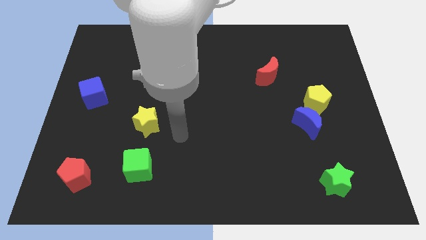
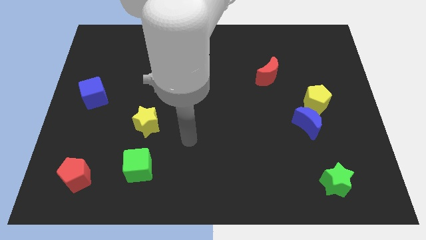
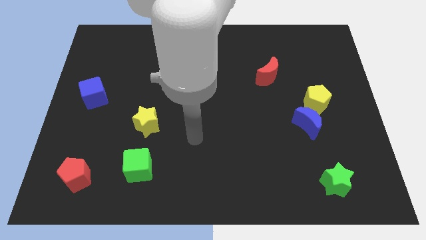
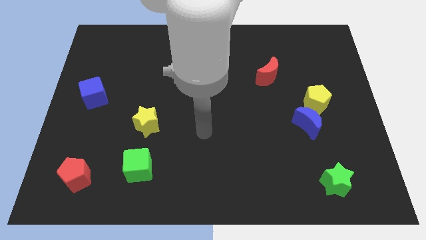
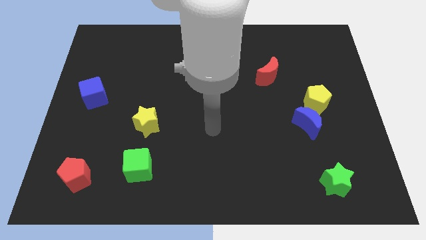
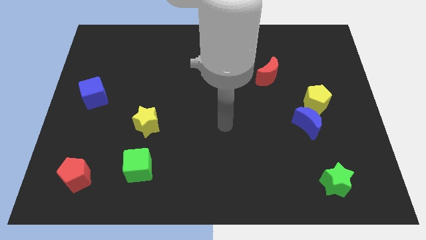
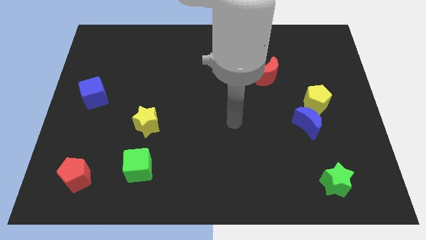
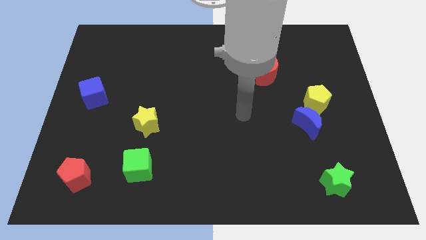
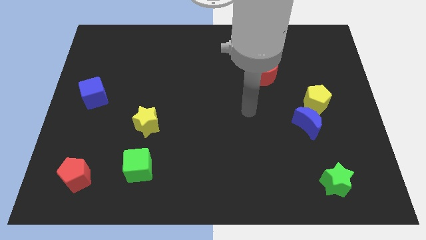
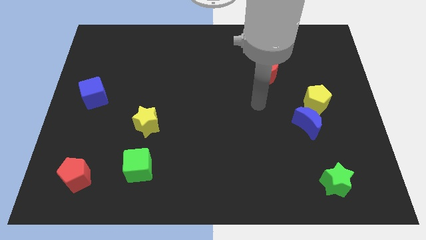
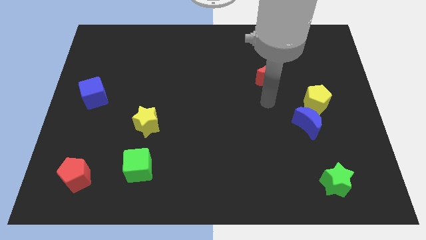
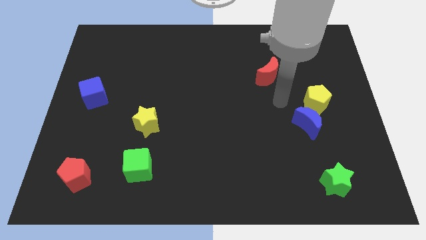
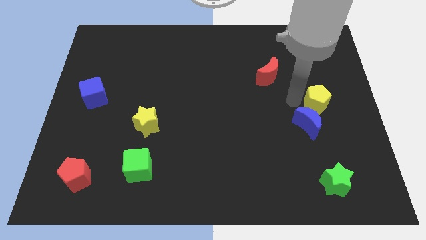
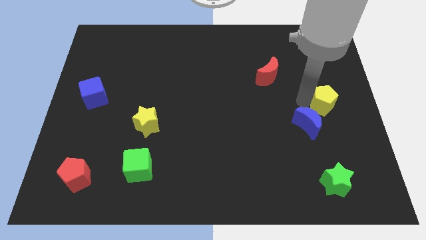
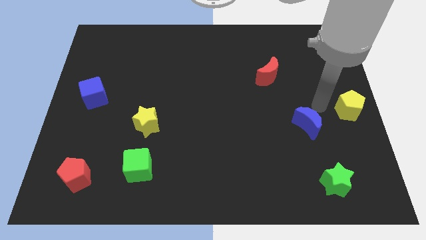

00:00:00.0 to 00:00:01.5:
separate the blue moon from the yellow pentagon

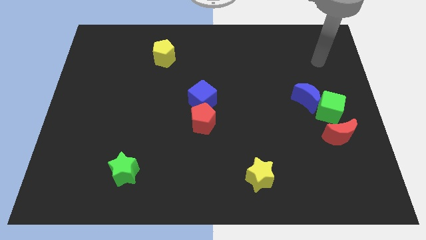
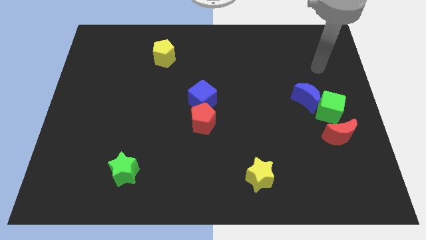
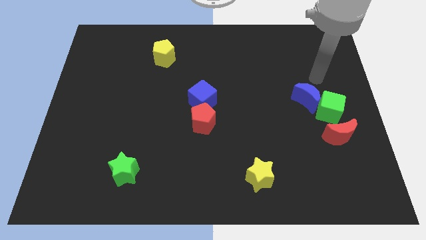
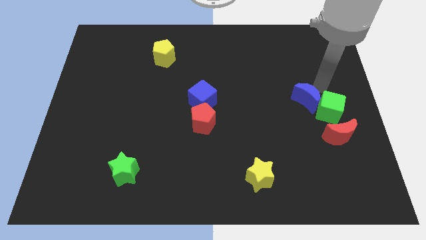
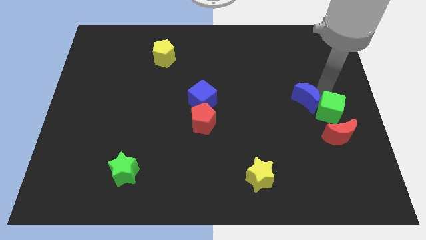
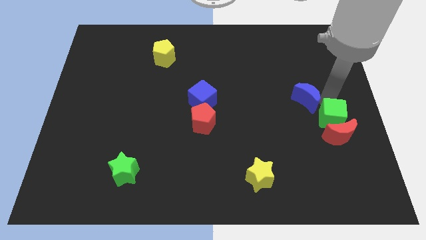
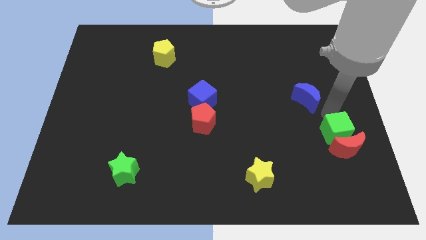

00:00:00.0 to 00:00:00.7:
separate the blue moon from the green cube

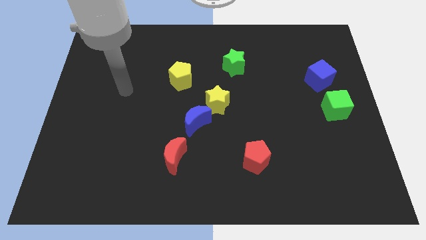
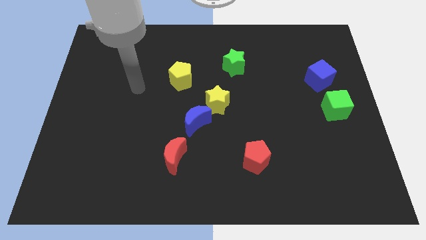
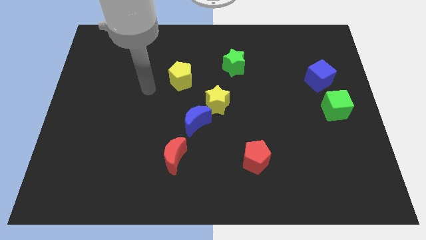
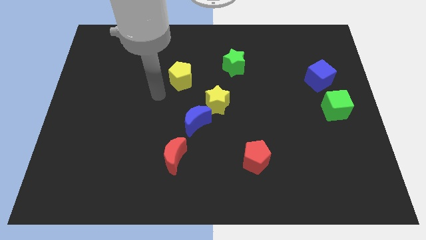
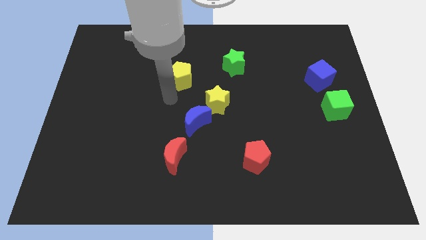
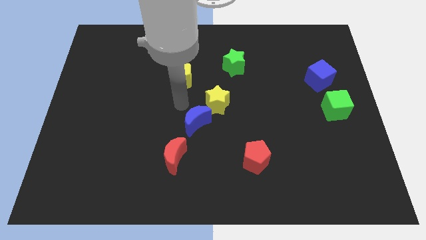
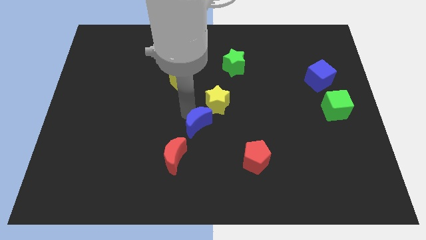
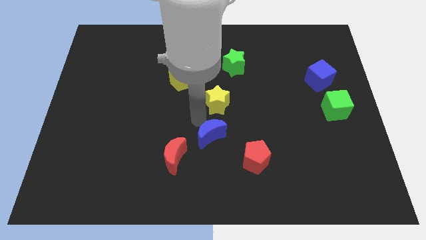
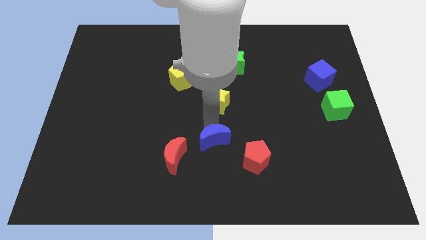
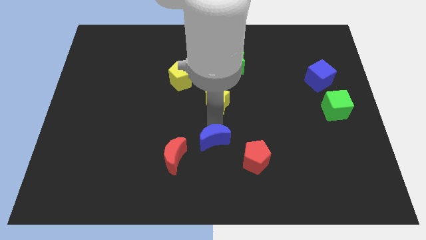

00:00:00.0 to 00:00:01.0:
separate the yellow star from the blue moon

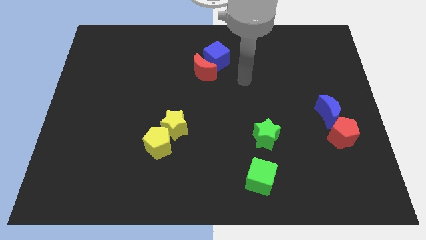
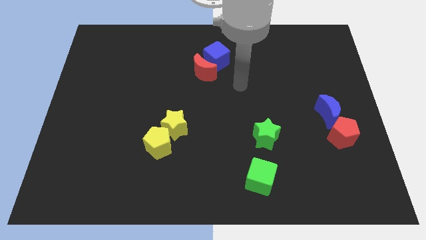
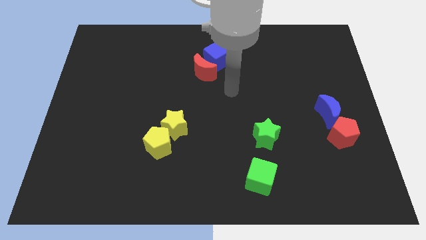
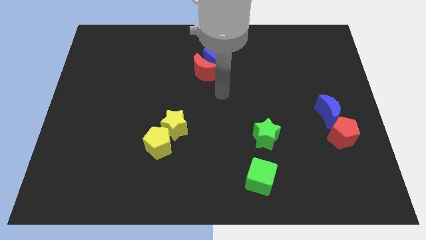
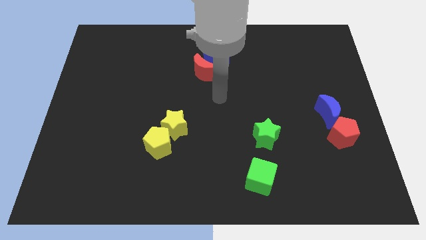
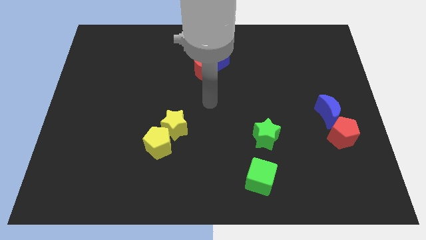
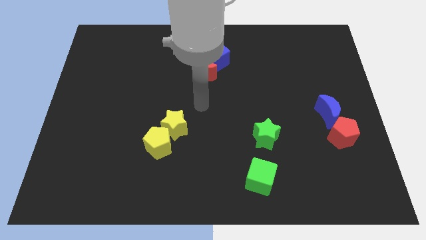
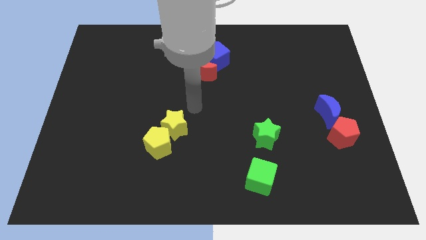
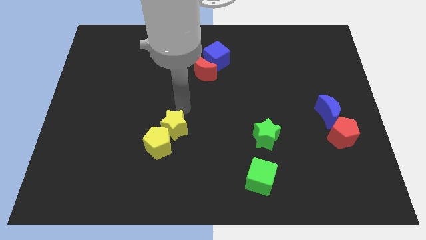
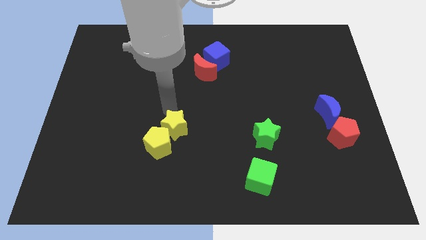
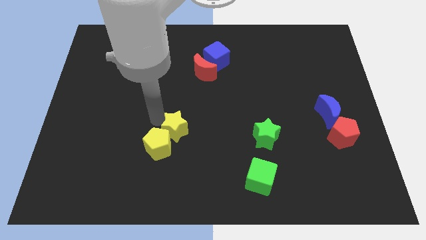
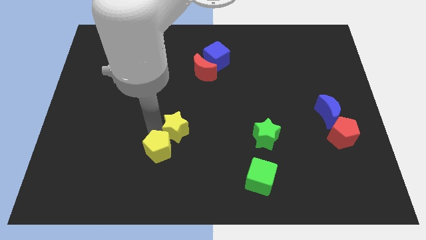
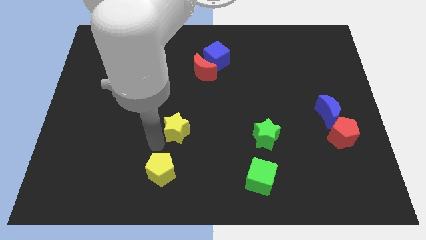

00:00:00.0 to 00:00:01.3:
pull the yellow star apart from the yellow pentagon

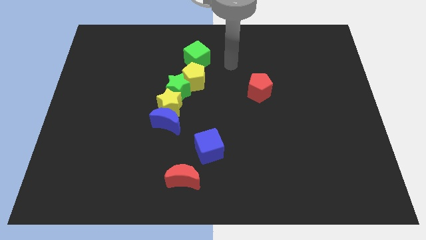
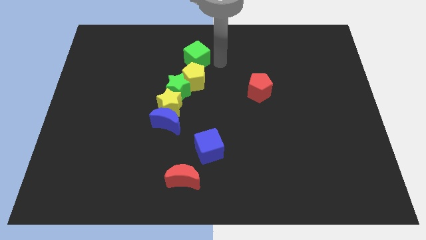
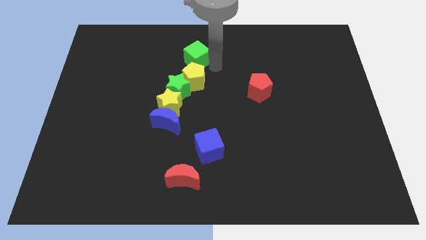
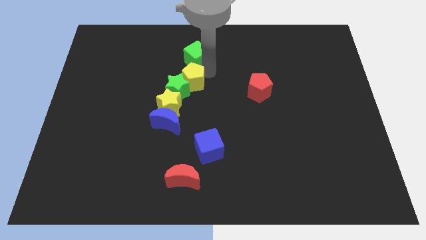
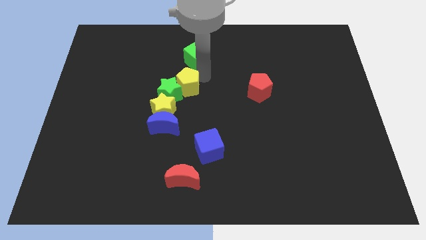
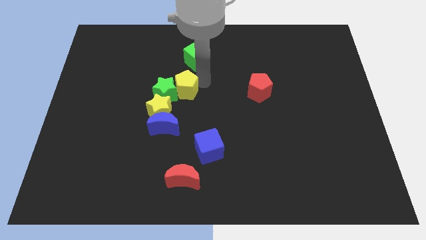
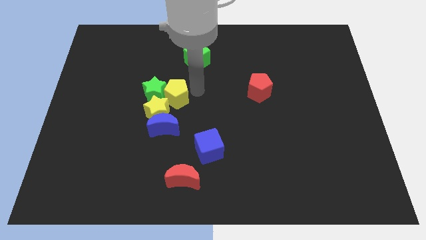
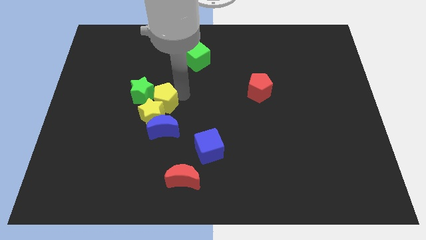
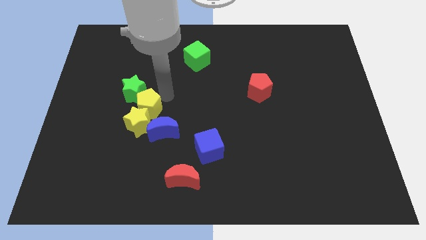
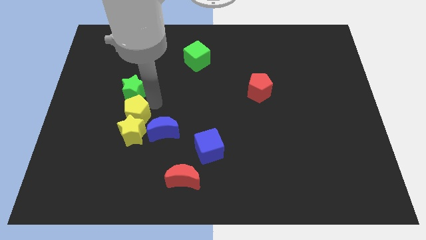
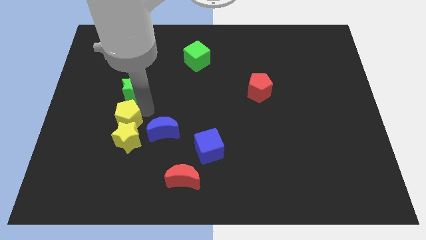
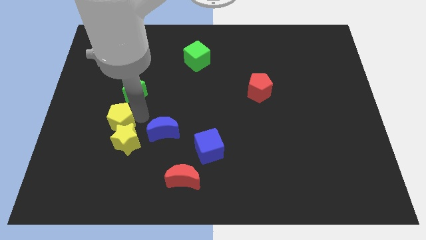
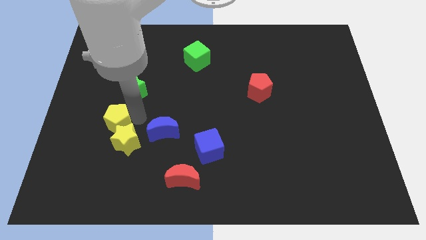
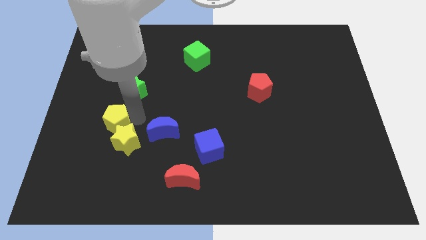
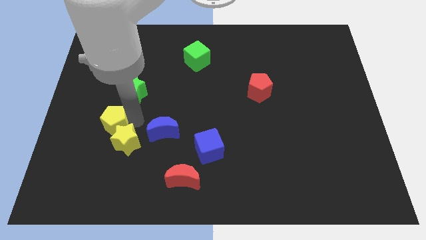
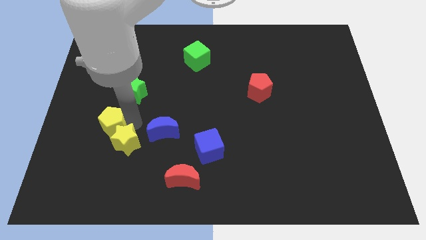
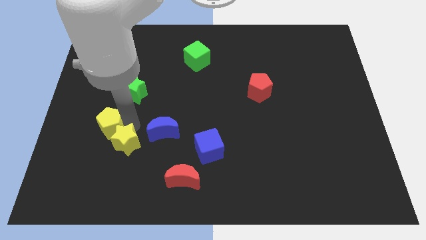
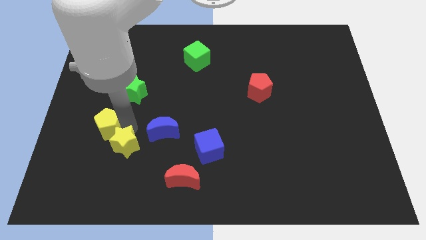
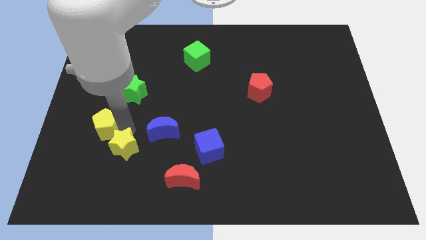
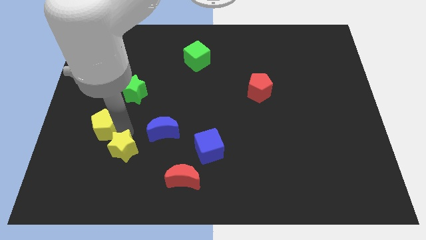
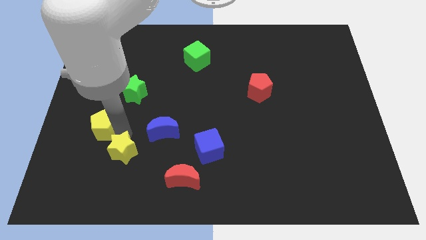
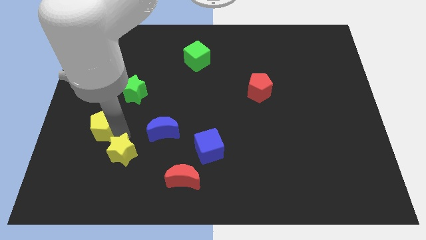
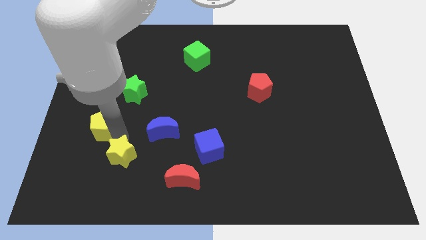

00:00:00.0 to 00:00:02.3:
separate the yellow star from the group of blocks

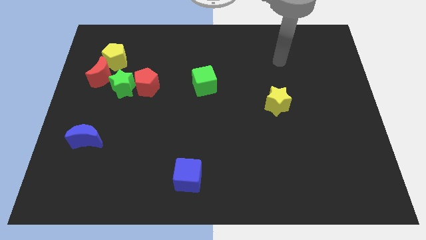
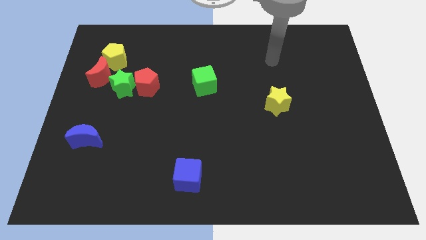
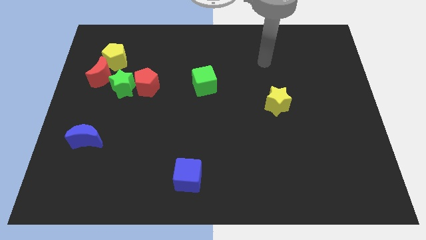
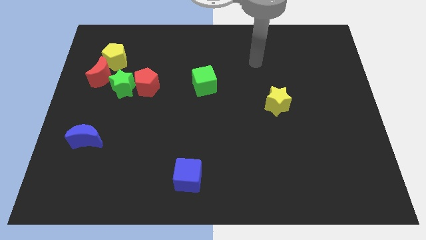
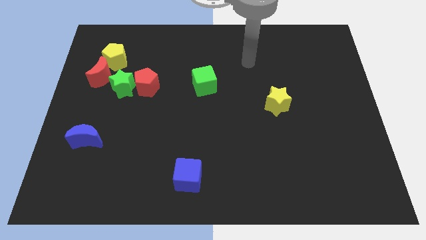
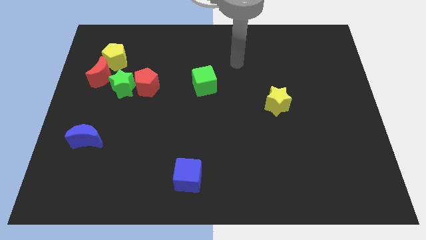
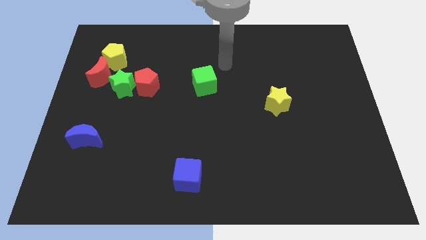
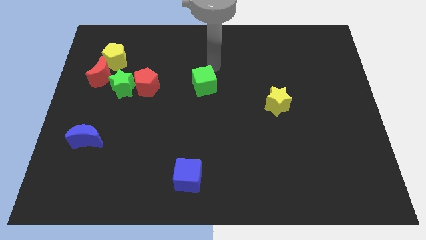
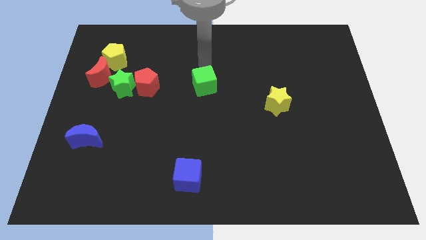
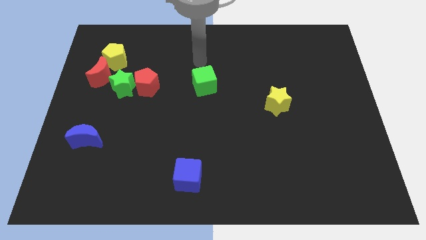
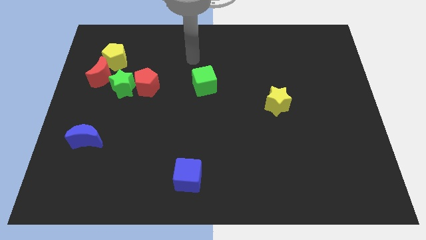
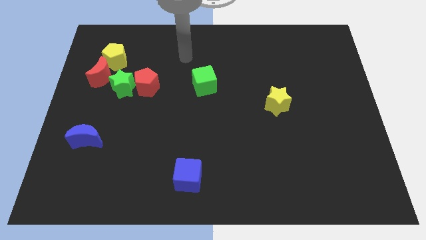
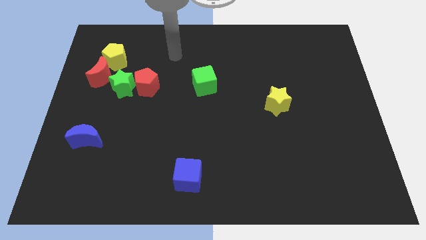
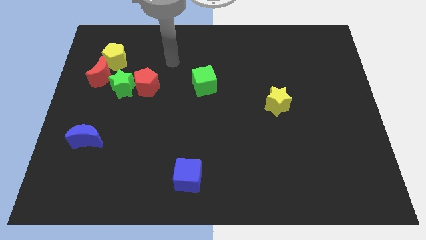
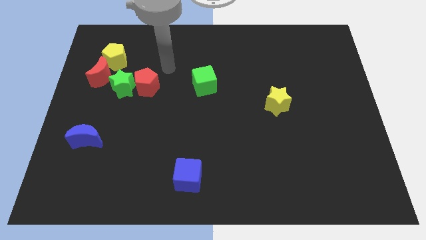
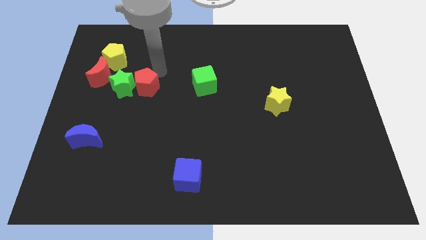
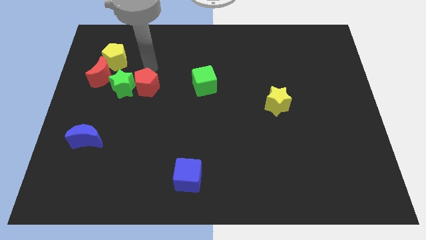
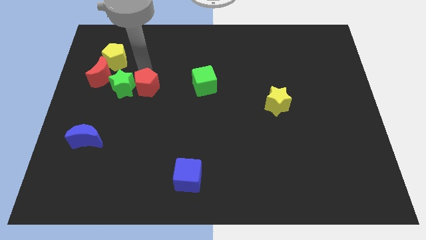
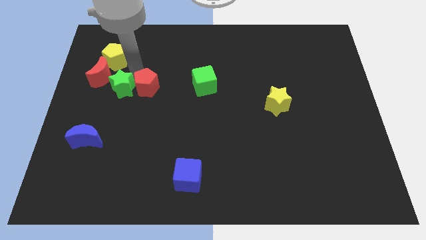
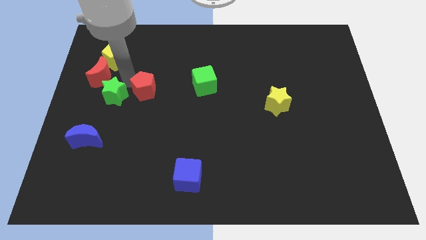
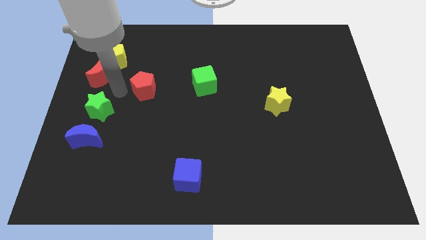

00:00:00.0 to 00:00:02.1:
separate the red pentagon from the green star

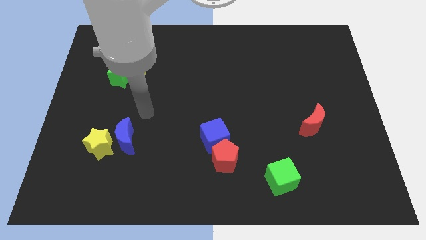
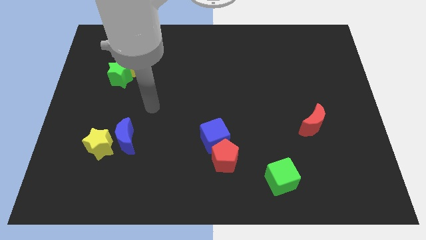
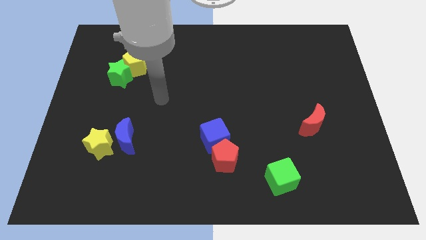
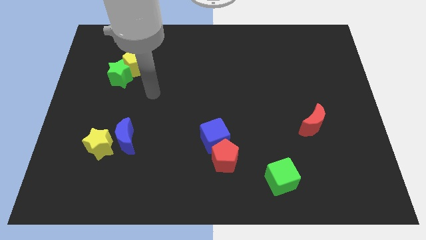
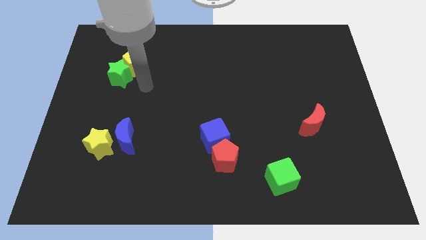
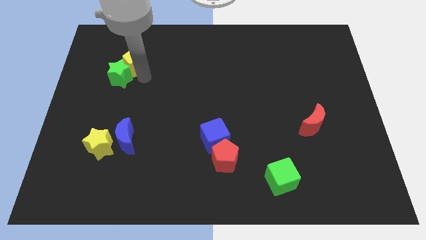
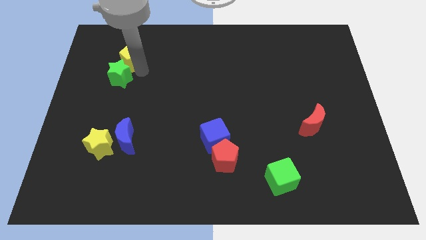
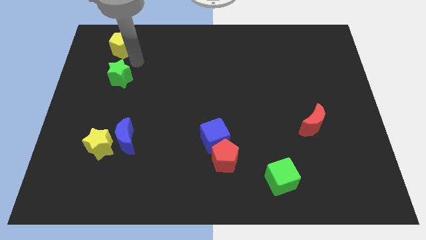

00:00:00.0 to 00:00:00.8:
separate the green star from the yellow pentagon
